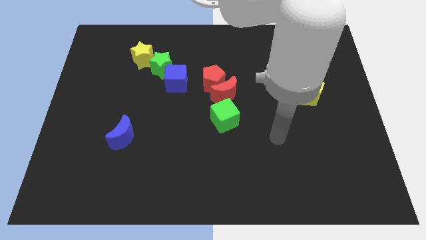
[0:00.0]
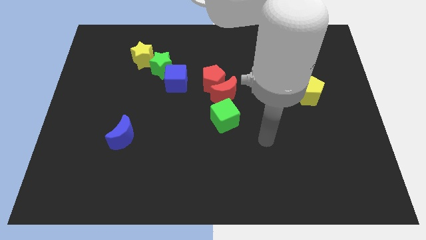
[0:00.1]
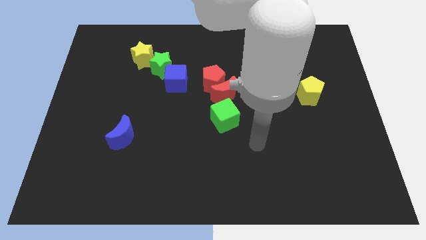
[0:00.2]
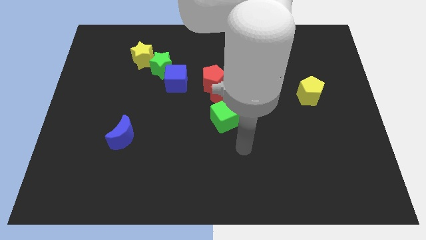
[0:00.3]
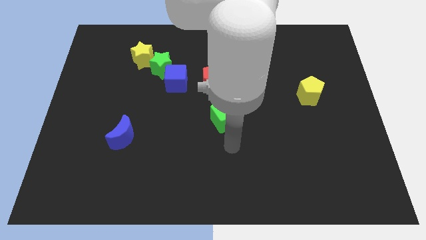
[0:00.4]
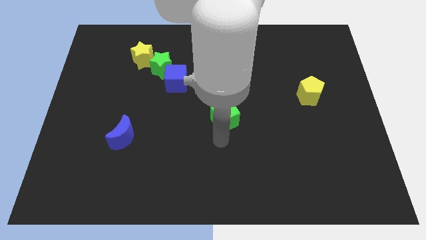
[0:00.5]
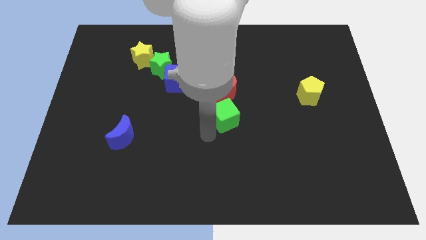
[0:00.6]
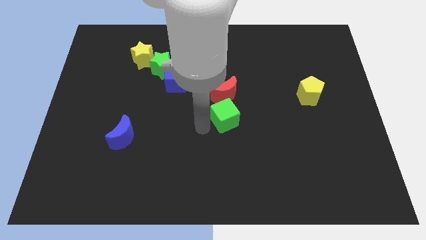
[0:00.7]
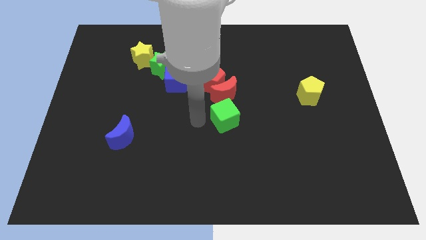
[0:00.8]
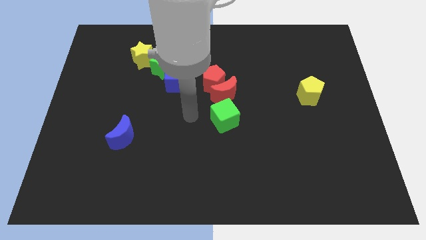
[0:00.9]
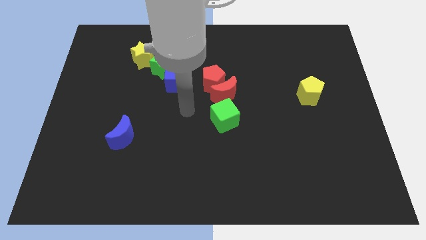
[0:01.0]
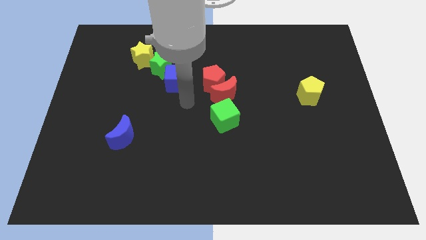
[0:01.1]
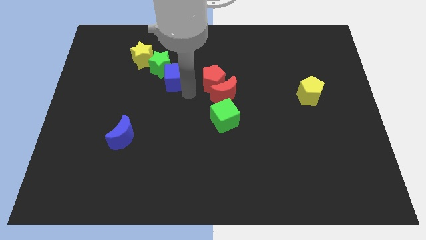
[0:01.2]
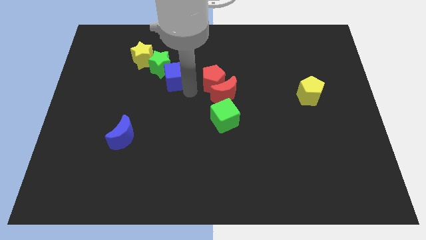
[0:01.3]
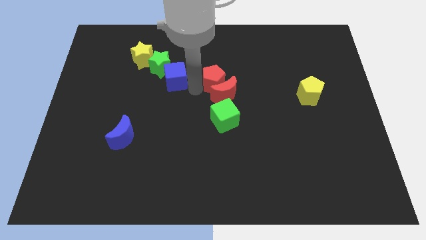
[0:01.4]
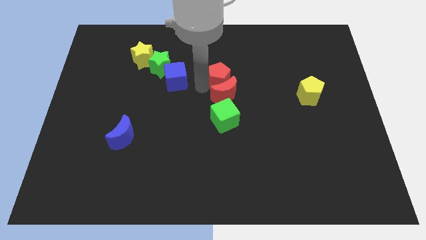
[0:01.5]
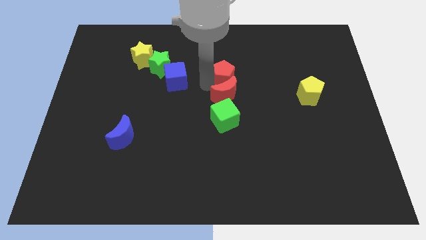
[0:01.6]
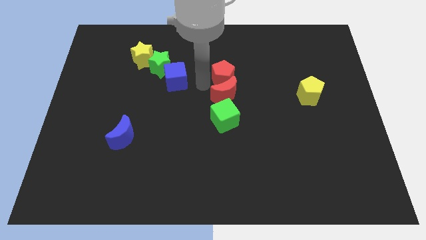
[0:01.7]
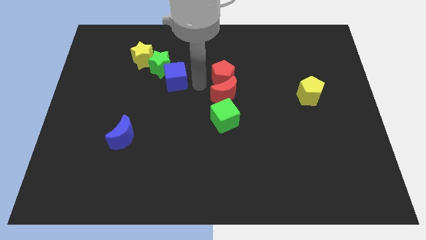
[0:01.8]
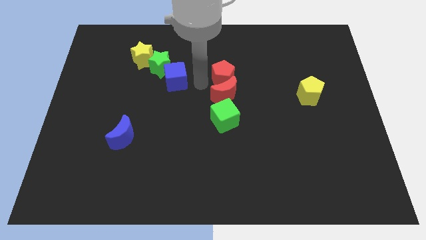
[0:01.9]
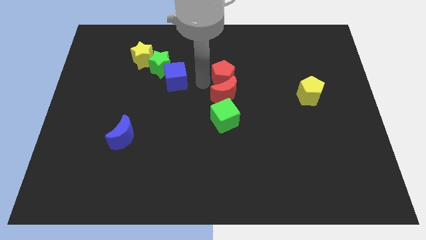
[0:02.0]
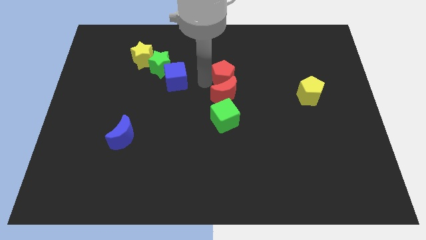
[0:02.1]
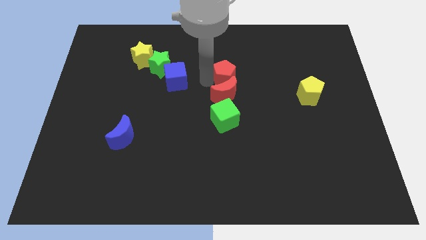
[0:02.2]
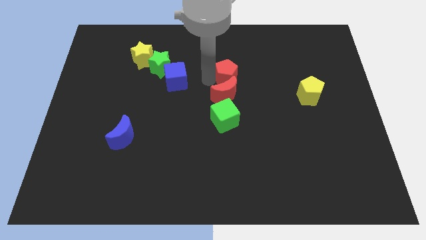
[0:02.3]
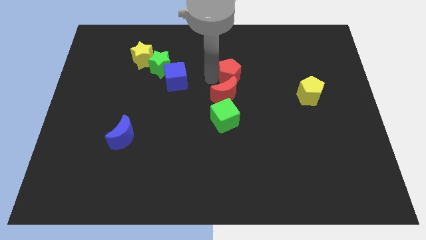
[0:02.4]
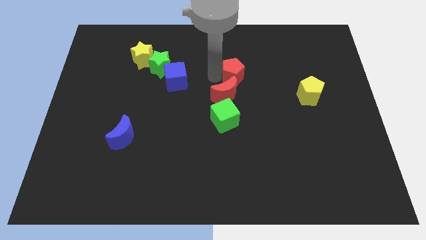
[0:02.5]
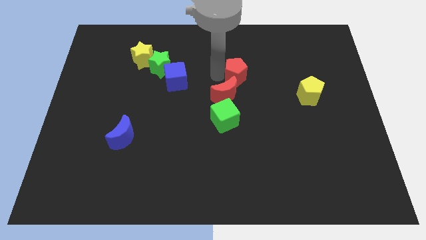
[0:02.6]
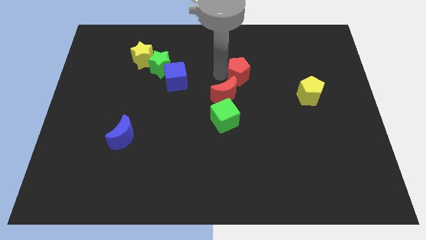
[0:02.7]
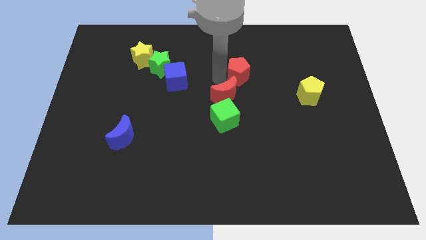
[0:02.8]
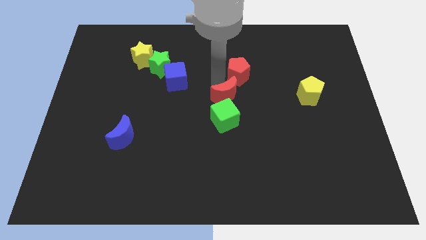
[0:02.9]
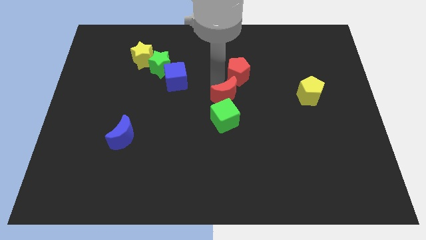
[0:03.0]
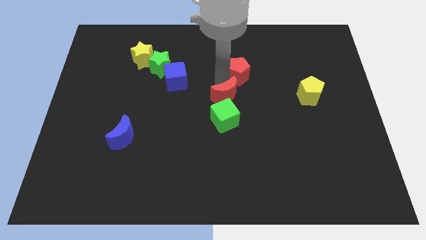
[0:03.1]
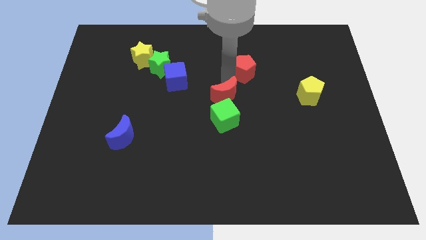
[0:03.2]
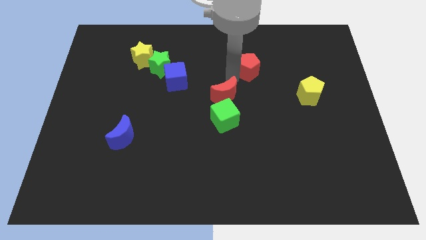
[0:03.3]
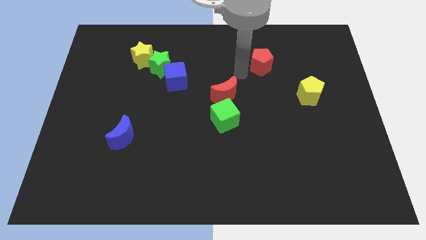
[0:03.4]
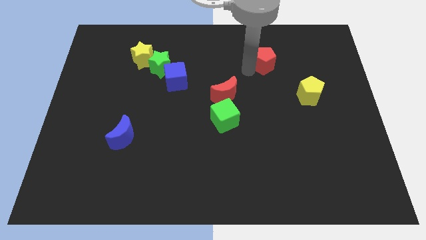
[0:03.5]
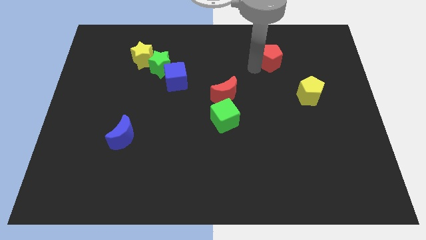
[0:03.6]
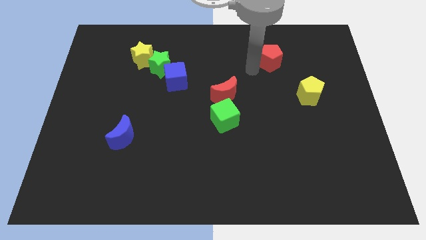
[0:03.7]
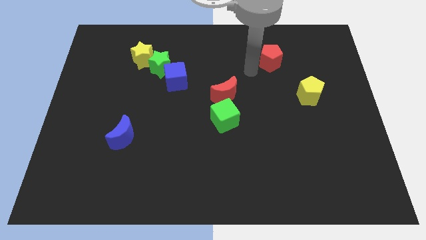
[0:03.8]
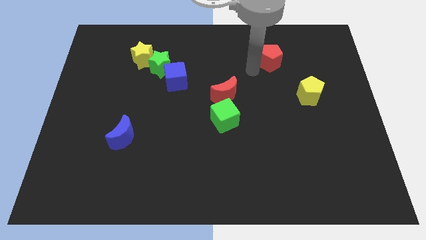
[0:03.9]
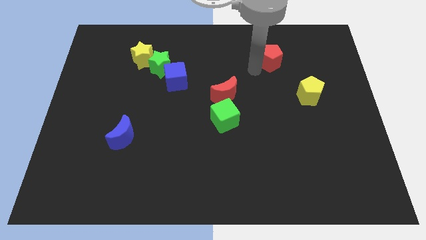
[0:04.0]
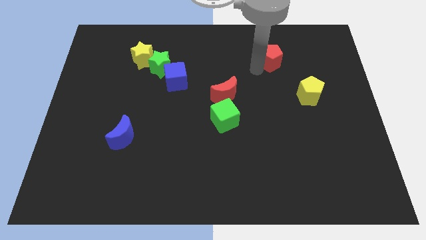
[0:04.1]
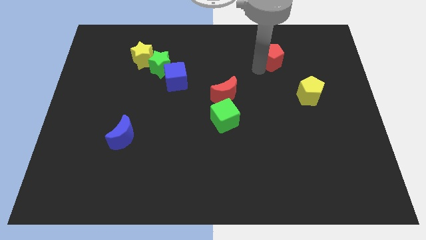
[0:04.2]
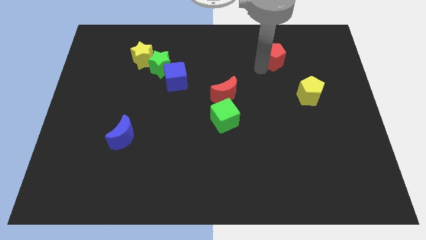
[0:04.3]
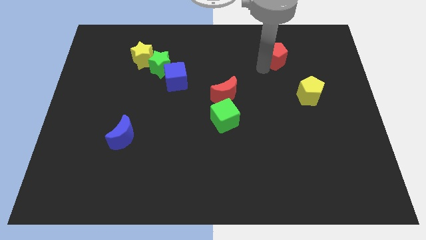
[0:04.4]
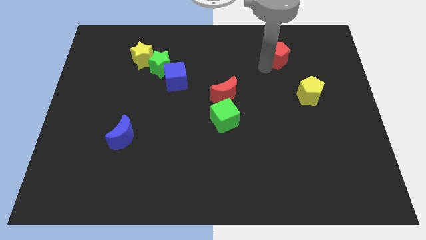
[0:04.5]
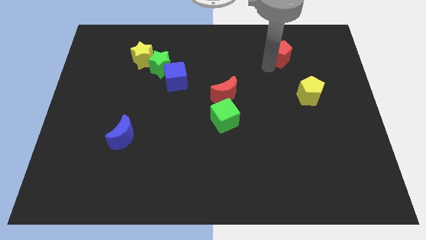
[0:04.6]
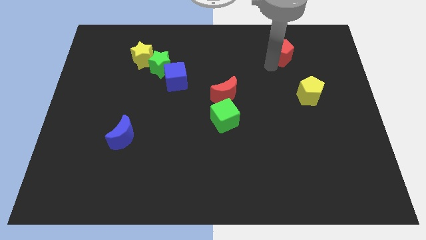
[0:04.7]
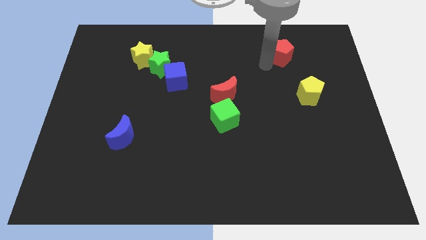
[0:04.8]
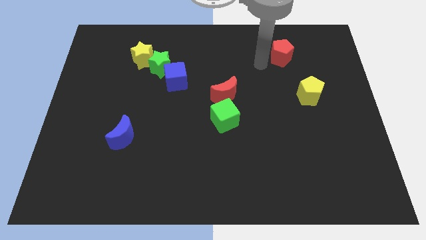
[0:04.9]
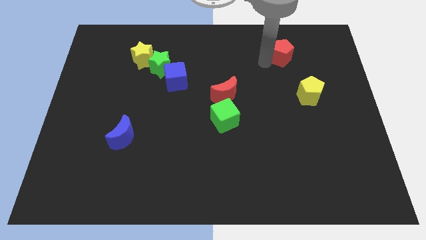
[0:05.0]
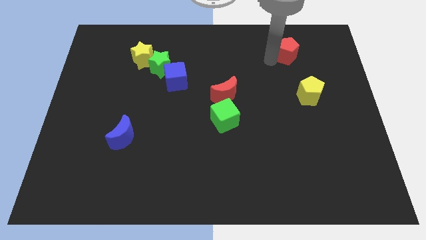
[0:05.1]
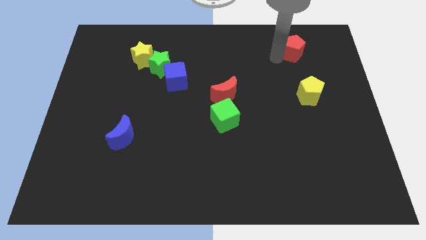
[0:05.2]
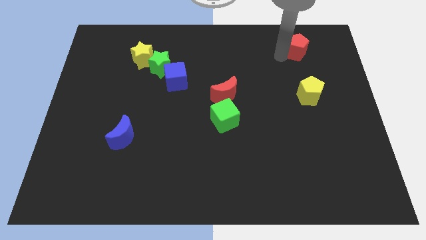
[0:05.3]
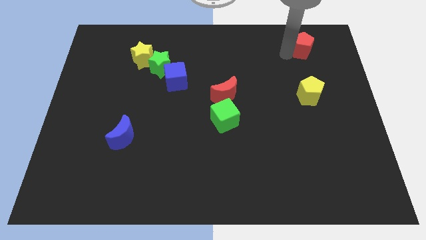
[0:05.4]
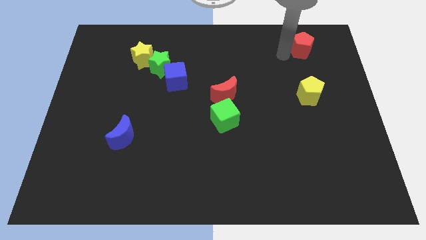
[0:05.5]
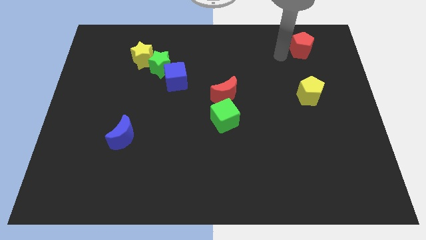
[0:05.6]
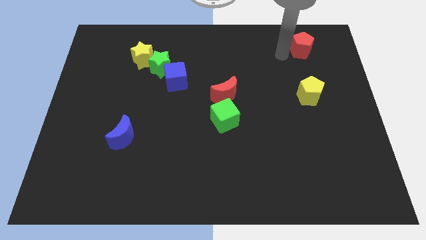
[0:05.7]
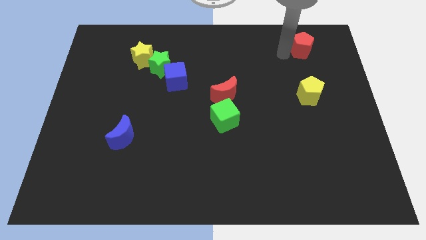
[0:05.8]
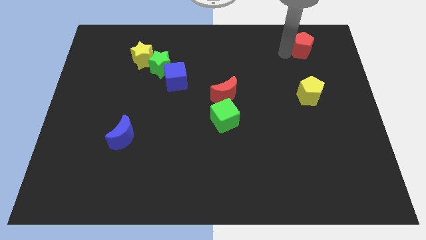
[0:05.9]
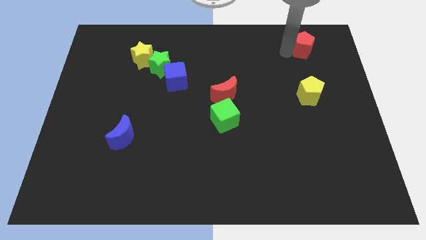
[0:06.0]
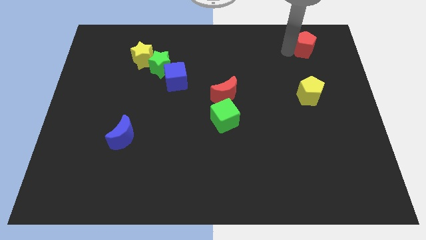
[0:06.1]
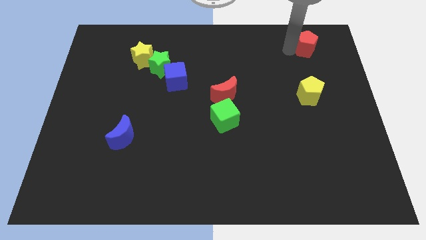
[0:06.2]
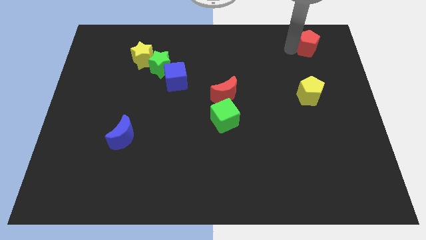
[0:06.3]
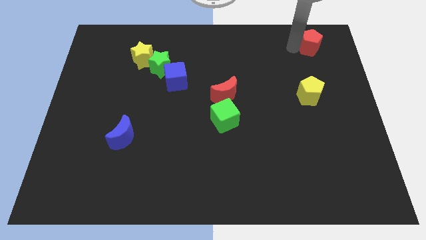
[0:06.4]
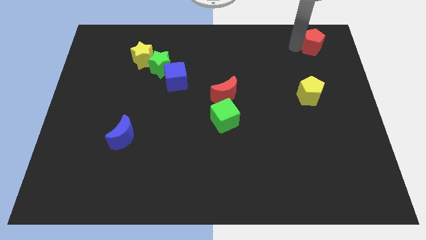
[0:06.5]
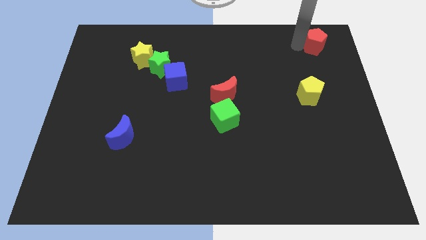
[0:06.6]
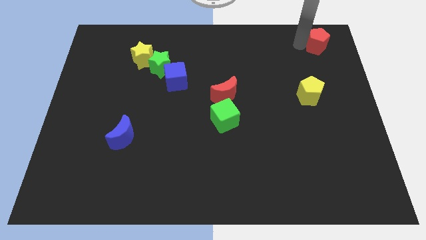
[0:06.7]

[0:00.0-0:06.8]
put the red pentagon to the top right corner
